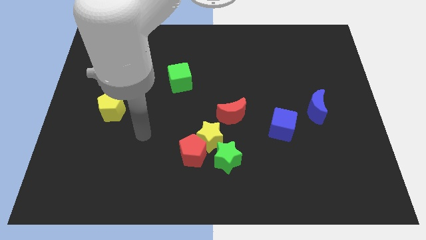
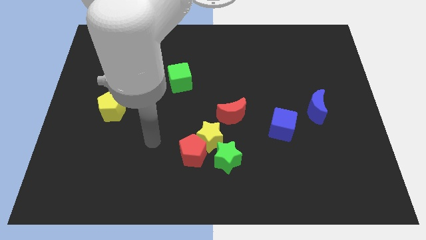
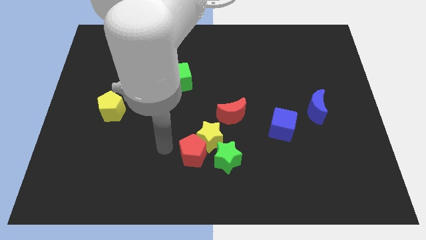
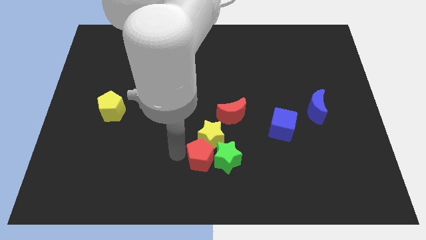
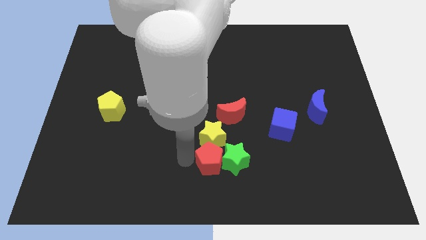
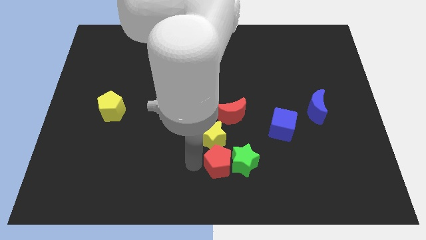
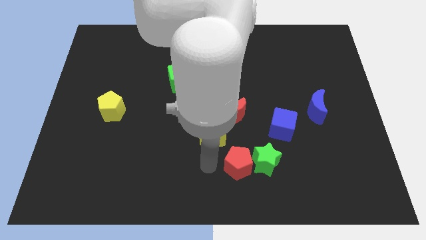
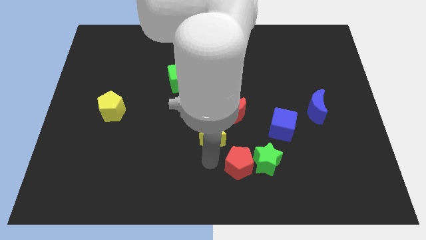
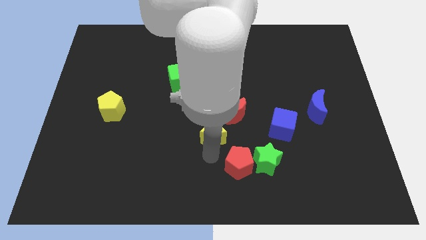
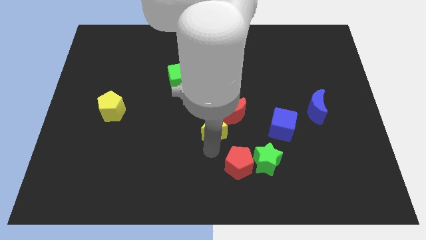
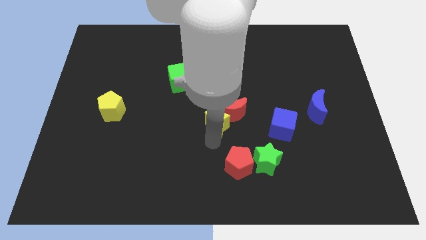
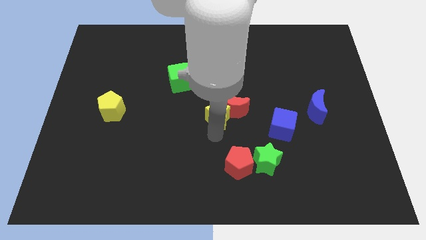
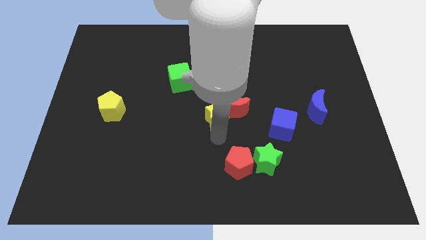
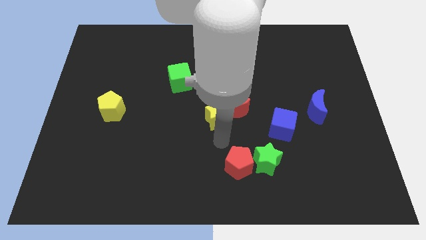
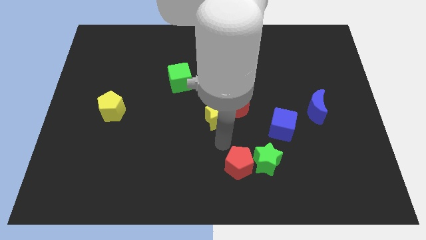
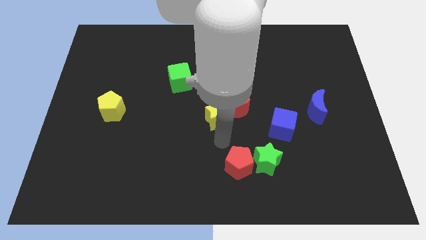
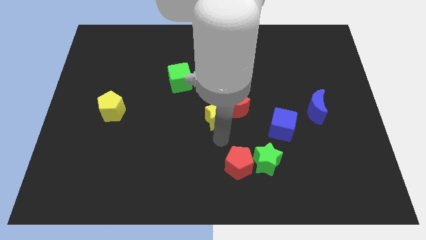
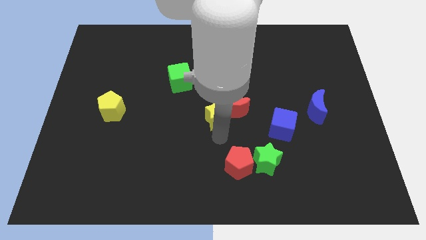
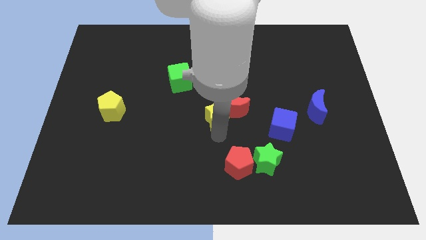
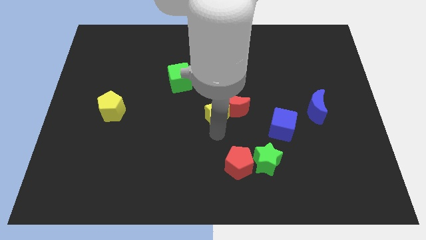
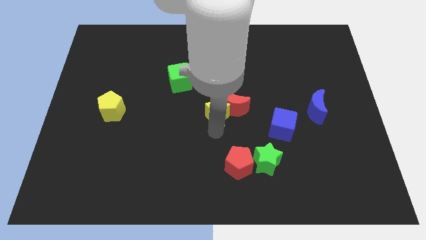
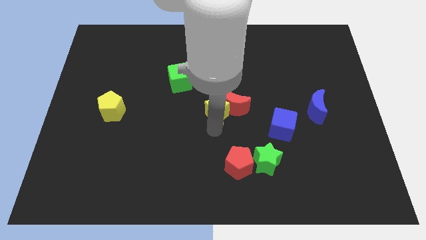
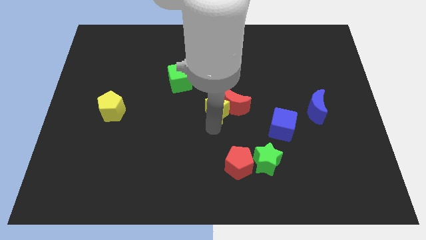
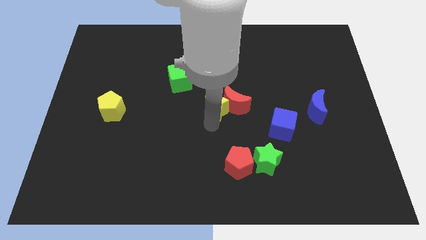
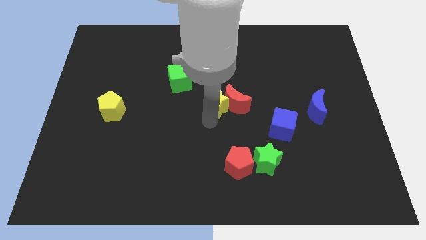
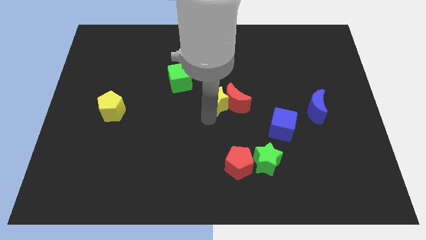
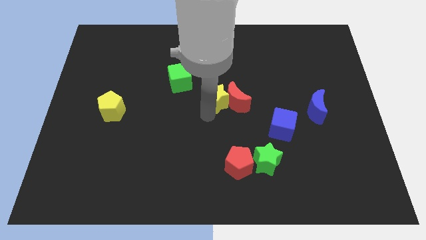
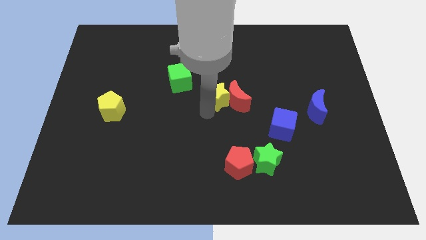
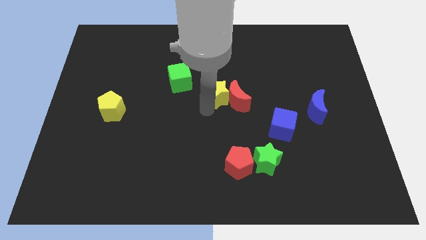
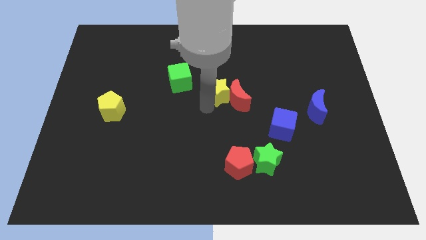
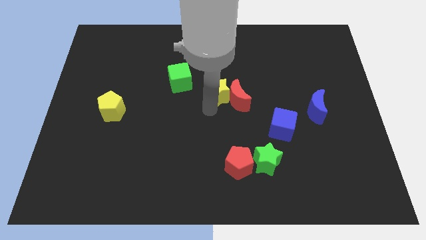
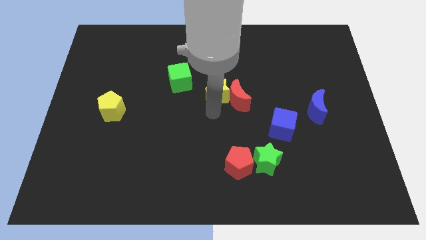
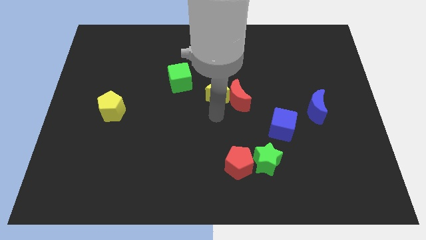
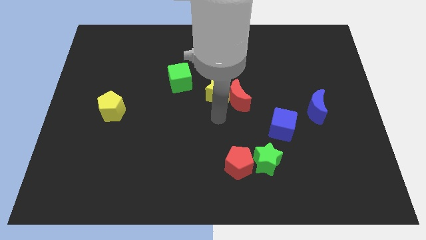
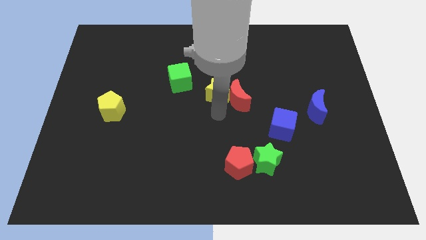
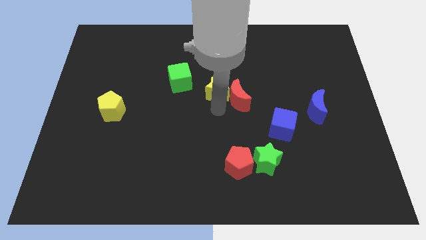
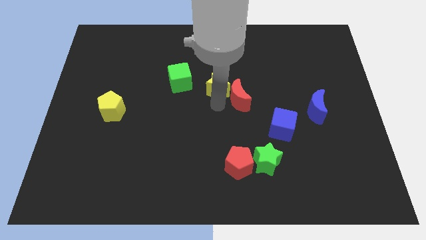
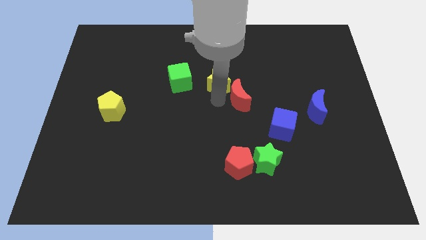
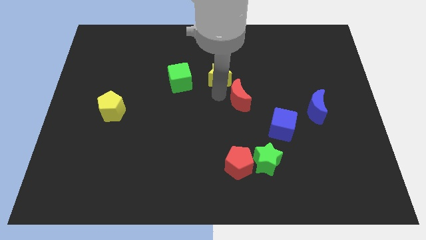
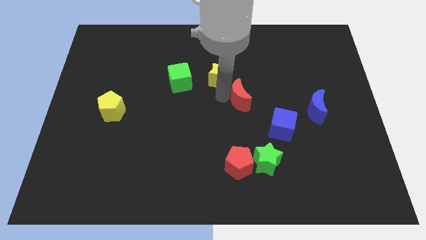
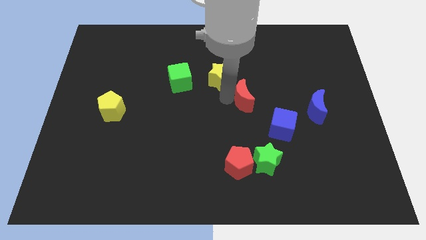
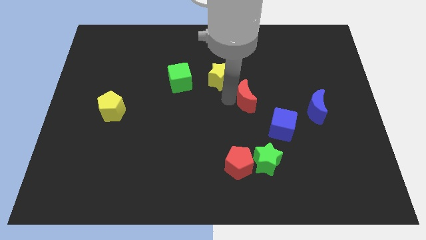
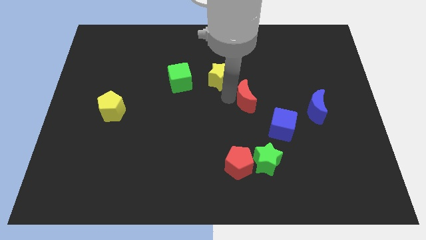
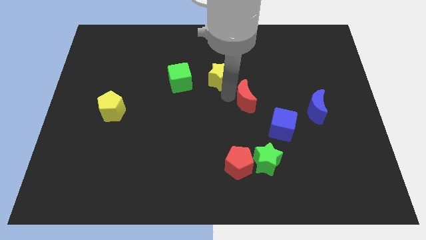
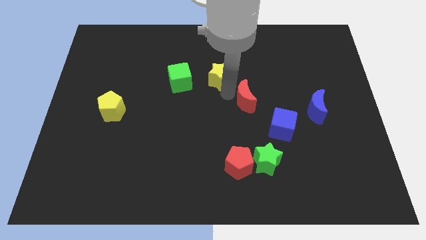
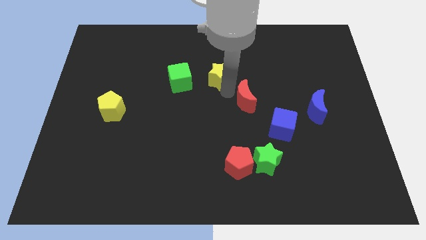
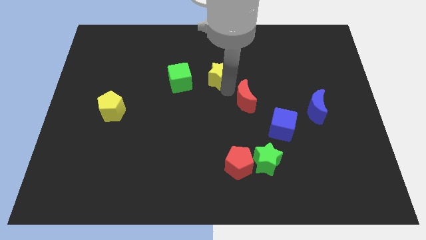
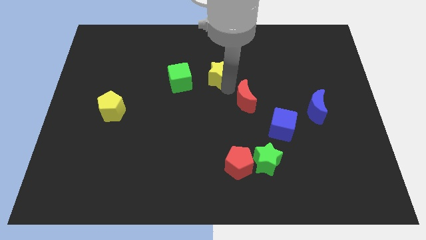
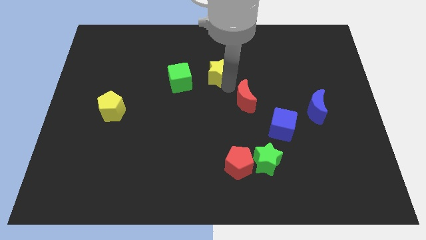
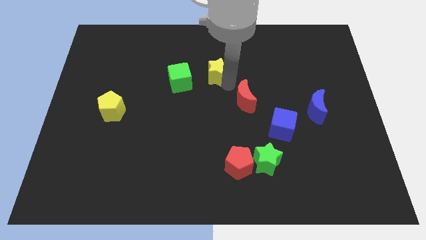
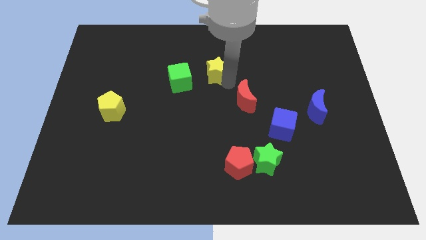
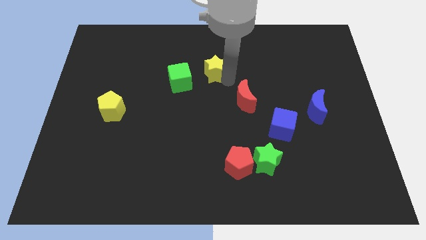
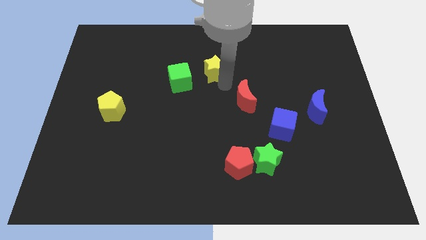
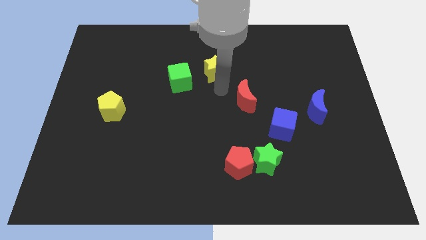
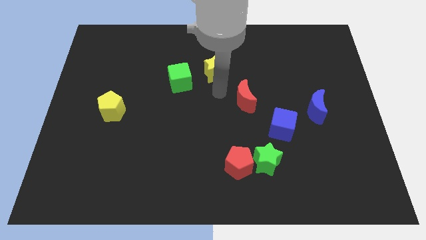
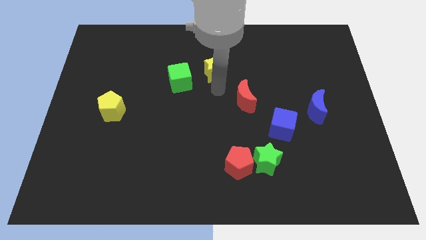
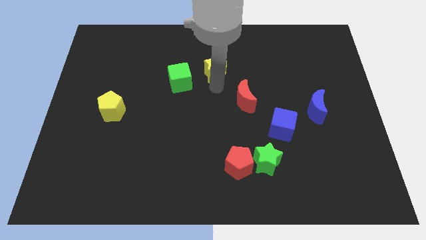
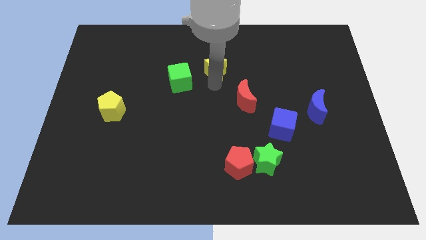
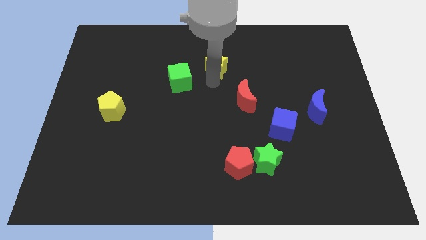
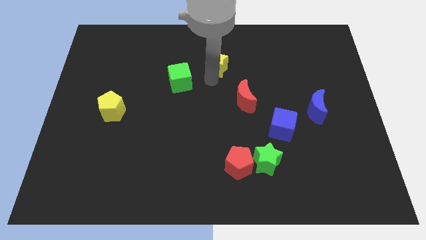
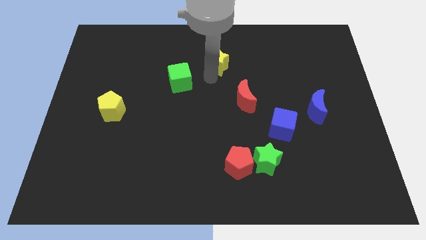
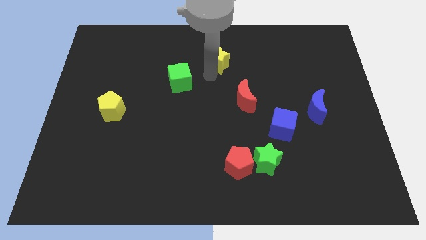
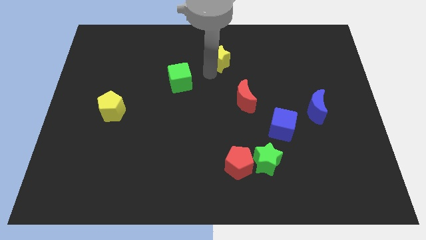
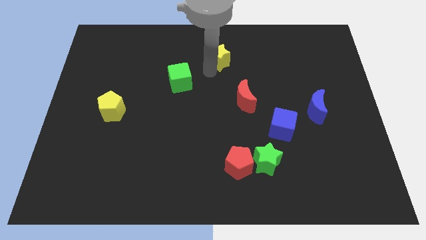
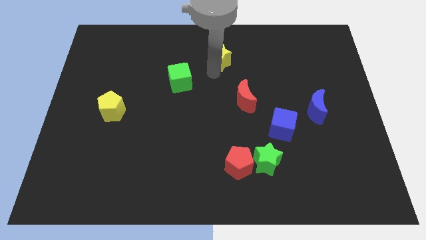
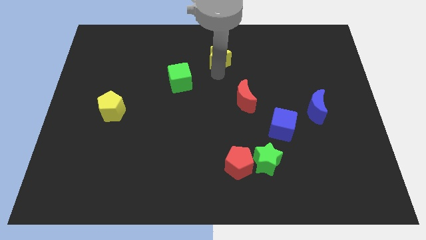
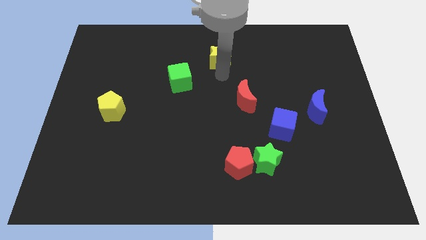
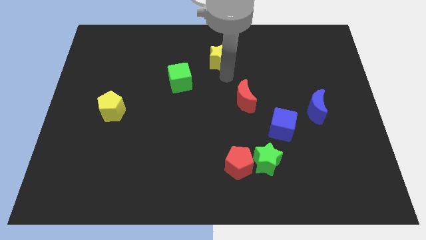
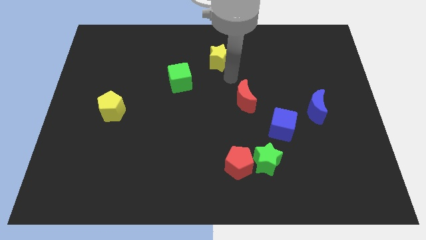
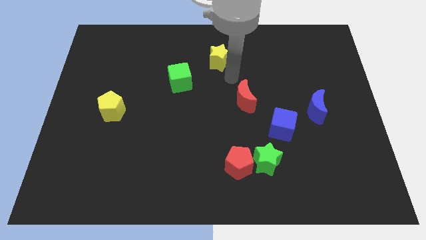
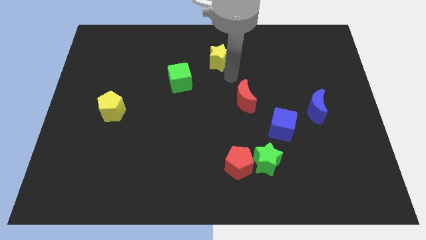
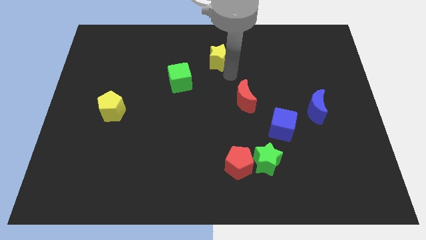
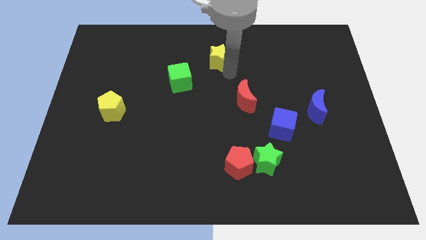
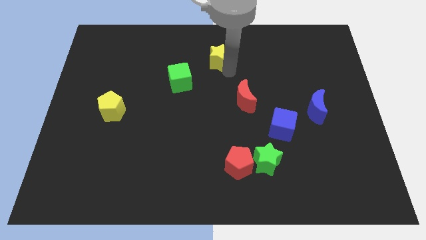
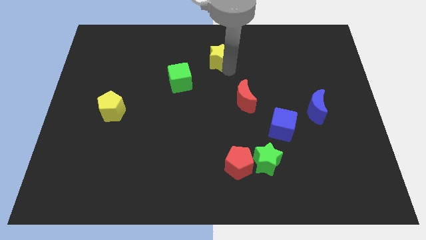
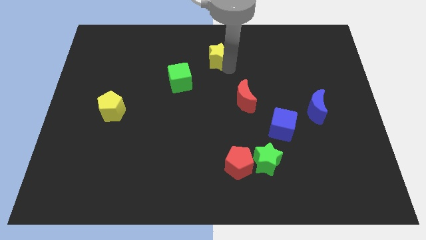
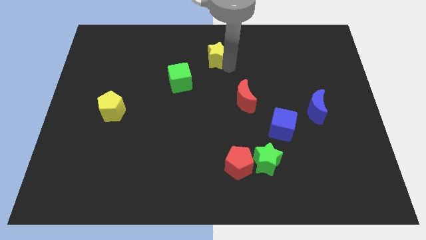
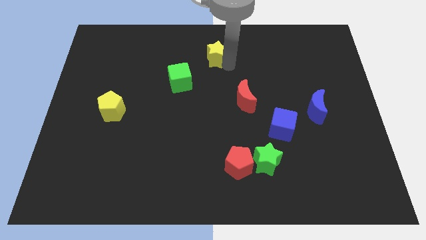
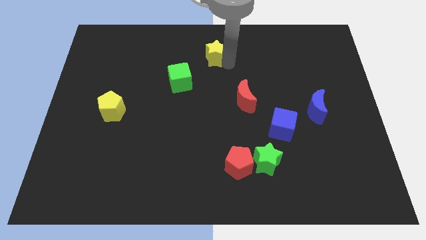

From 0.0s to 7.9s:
move the yellow star to the towards your base
